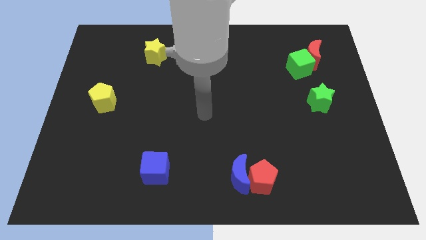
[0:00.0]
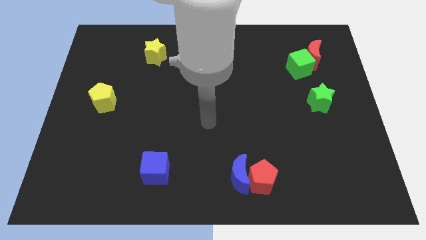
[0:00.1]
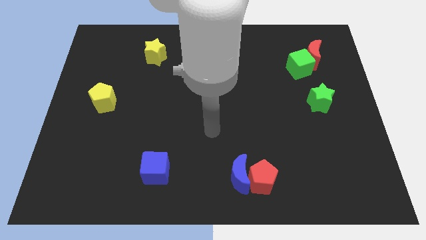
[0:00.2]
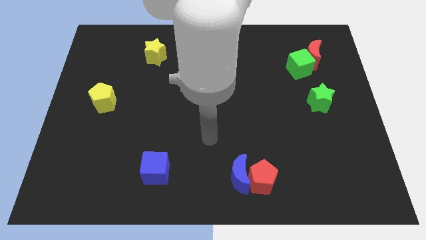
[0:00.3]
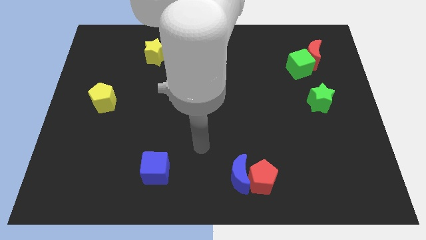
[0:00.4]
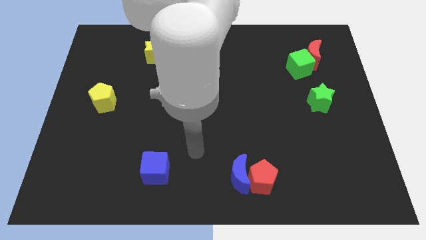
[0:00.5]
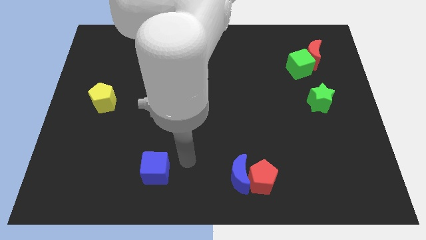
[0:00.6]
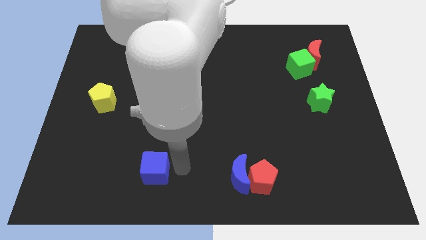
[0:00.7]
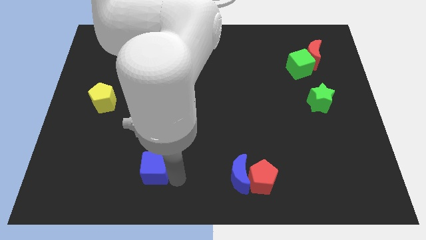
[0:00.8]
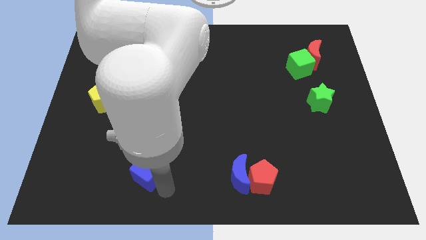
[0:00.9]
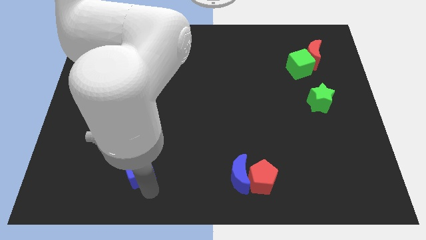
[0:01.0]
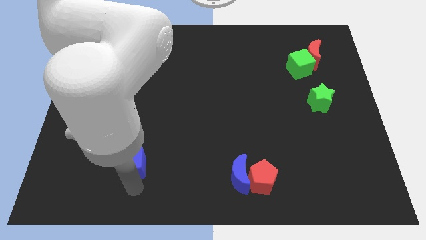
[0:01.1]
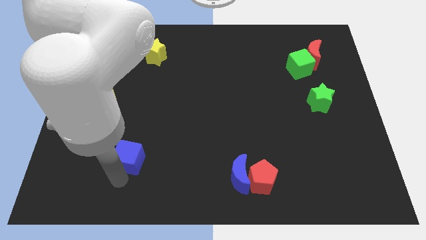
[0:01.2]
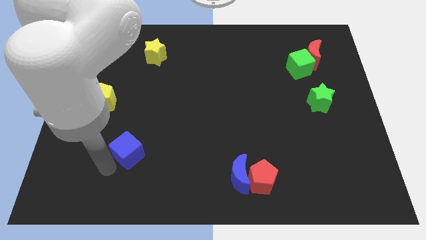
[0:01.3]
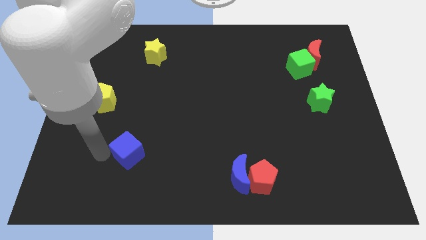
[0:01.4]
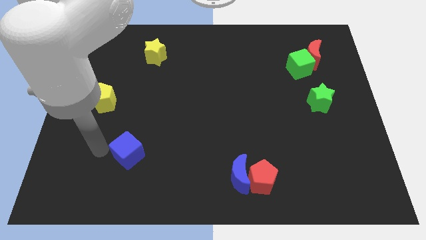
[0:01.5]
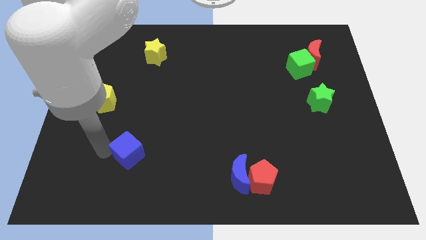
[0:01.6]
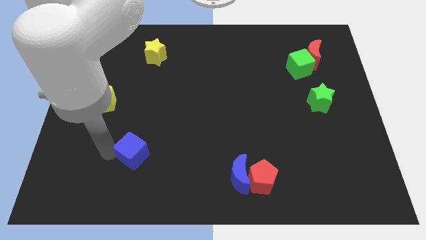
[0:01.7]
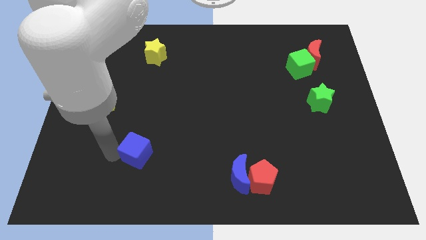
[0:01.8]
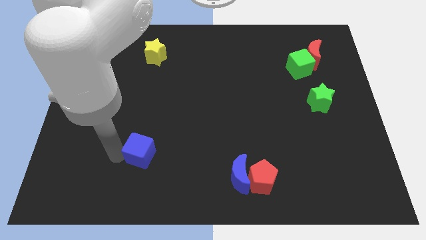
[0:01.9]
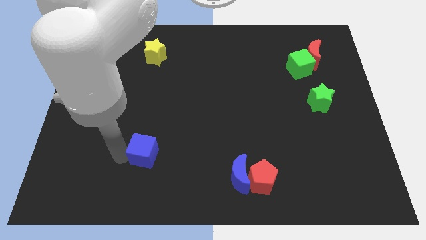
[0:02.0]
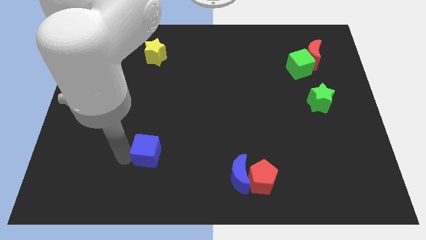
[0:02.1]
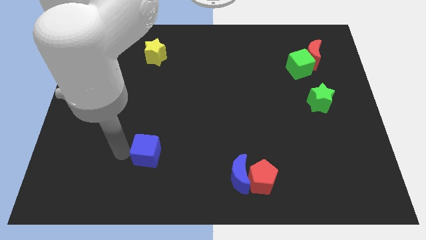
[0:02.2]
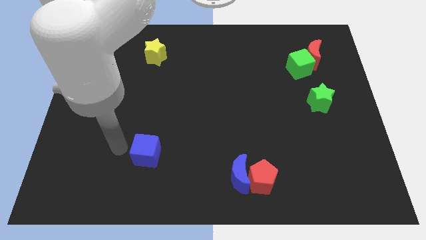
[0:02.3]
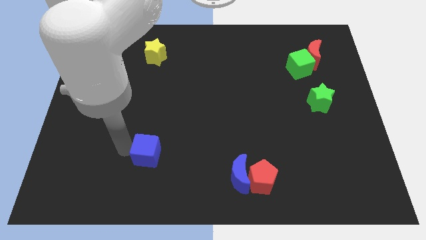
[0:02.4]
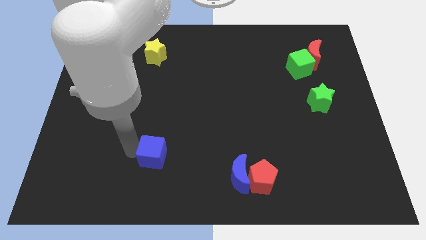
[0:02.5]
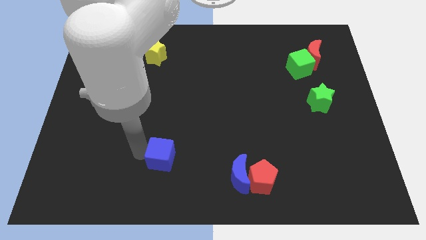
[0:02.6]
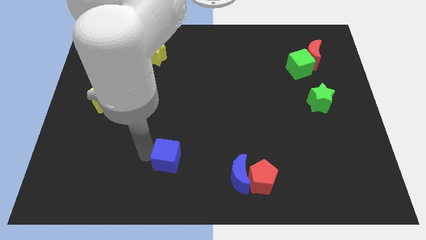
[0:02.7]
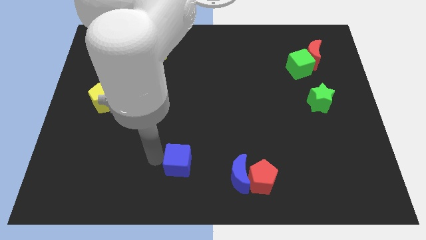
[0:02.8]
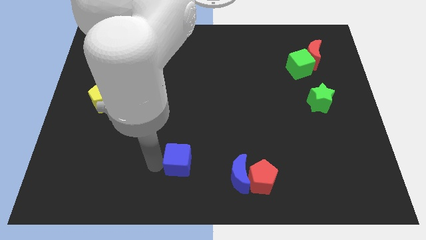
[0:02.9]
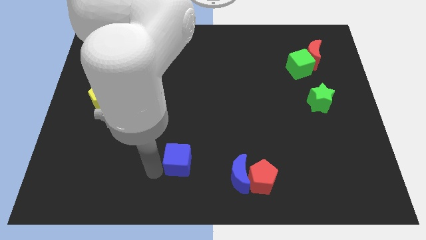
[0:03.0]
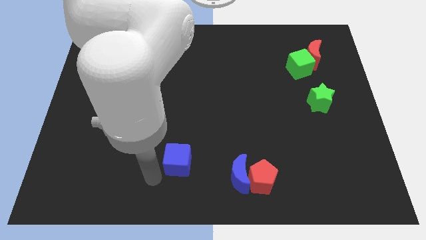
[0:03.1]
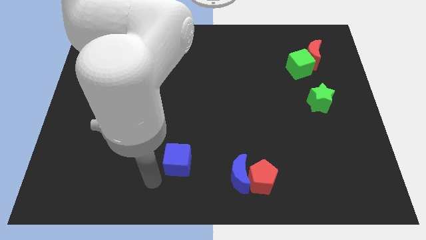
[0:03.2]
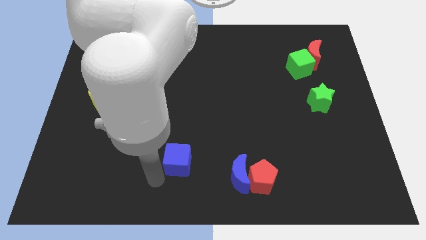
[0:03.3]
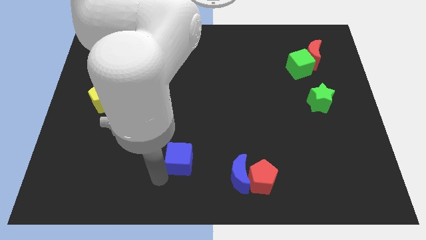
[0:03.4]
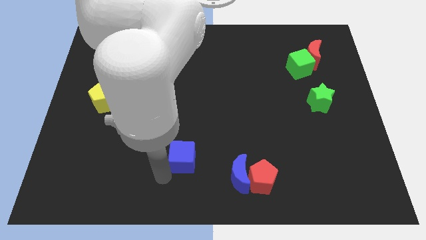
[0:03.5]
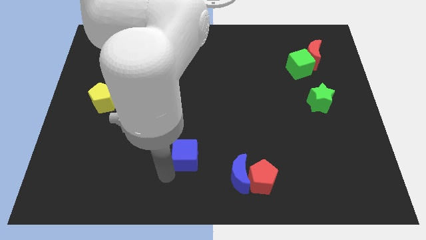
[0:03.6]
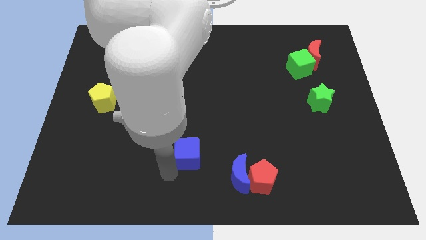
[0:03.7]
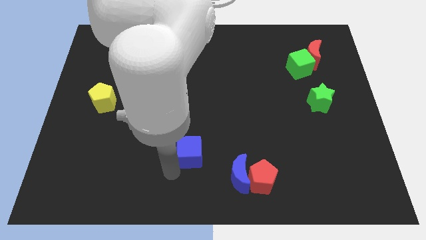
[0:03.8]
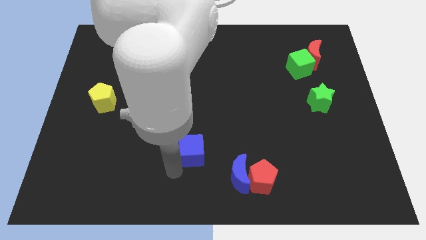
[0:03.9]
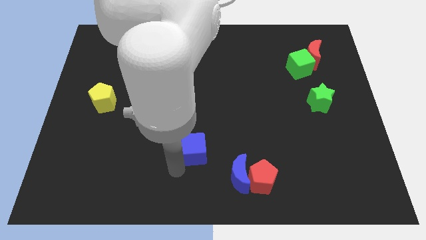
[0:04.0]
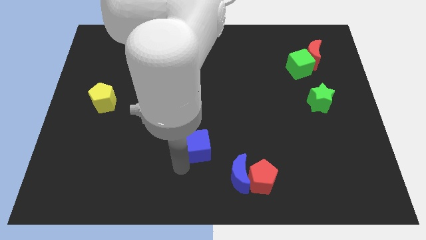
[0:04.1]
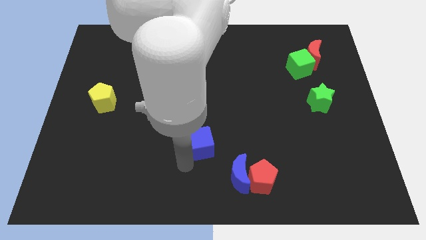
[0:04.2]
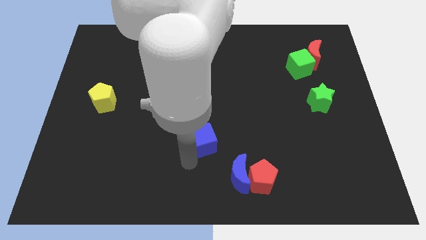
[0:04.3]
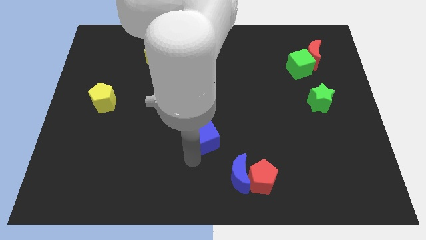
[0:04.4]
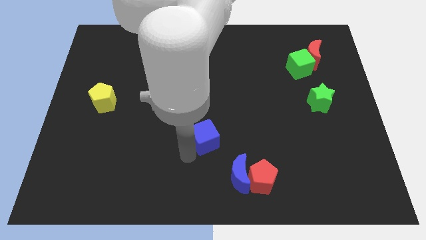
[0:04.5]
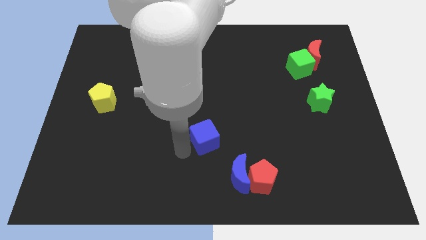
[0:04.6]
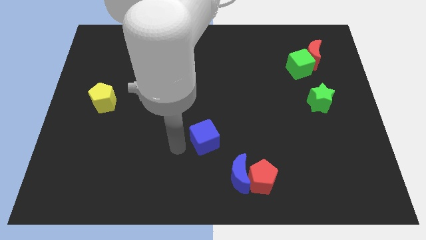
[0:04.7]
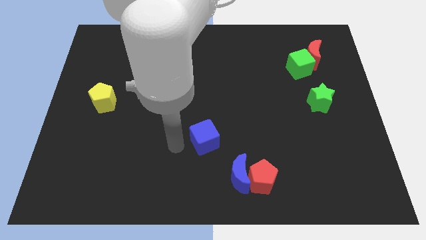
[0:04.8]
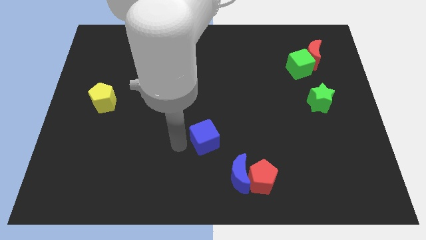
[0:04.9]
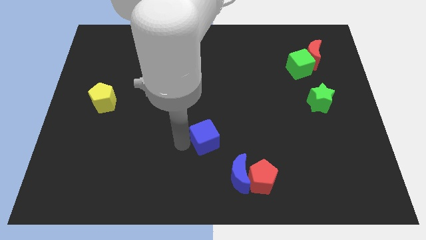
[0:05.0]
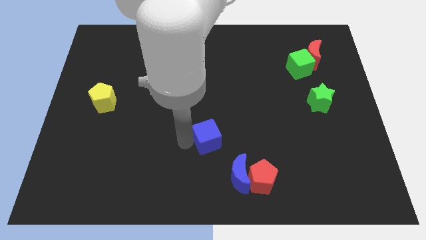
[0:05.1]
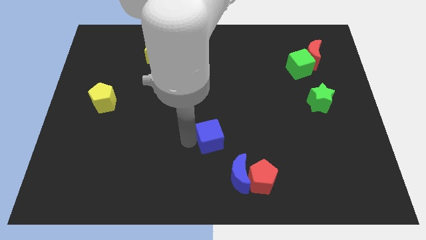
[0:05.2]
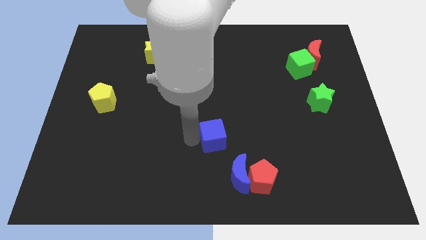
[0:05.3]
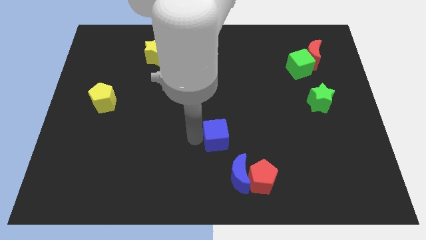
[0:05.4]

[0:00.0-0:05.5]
slide the blue cube to the top of the blue moon

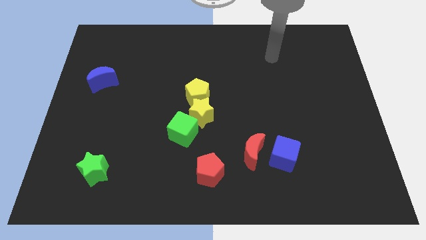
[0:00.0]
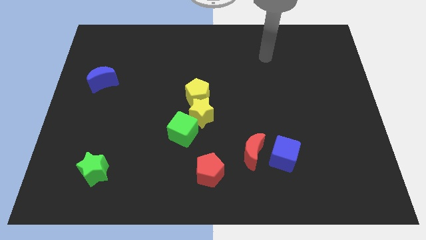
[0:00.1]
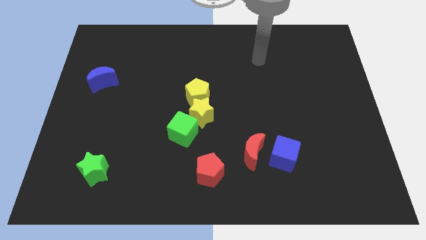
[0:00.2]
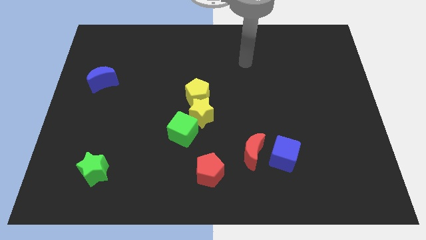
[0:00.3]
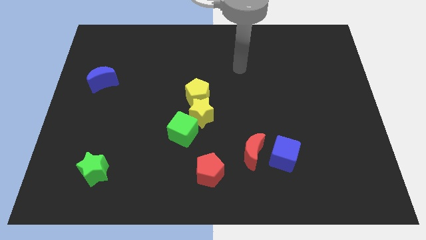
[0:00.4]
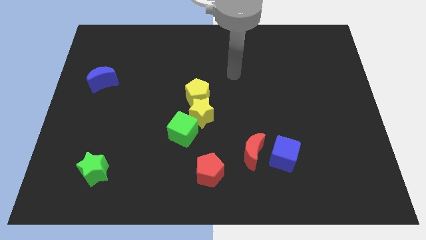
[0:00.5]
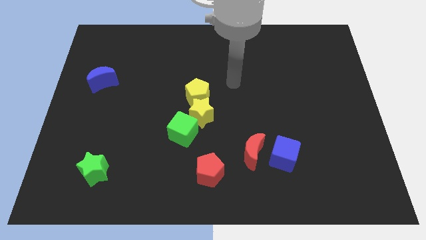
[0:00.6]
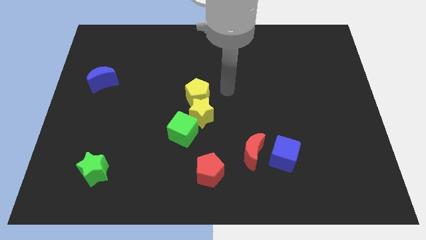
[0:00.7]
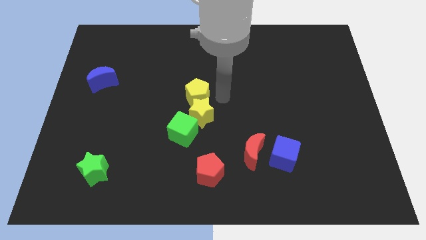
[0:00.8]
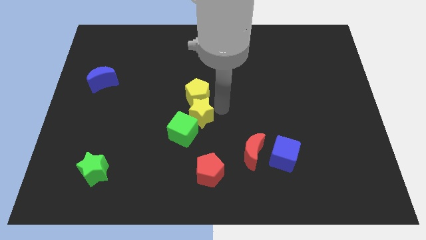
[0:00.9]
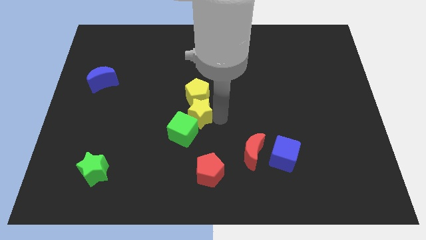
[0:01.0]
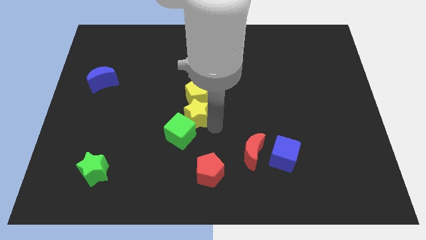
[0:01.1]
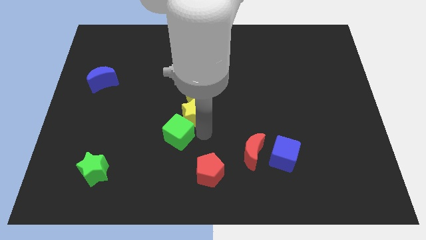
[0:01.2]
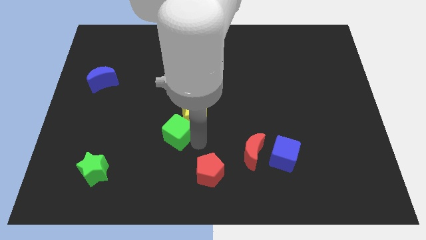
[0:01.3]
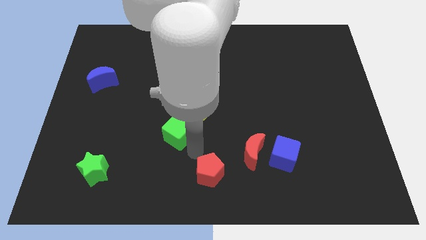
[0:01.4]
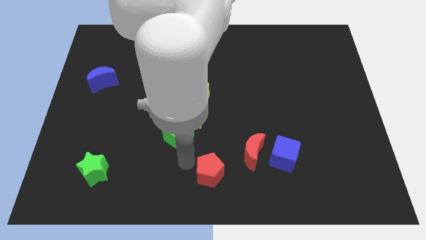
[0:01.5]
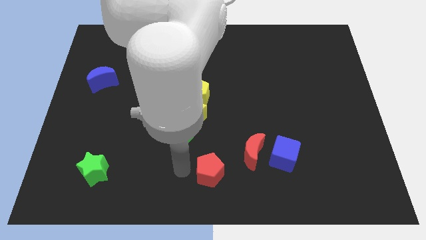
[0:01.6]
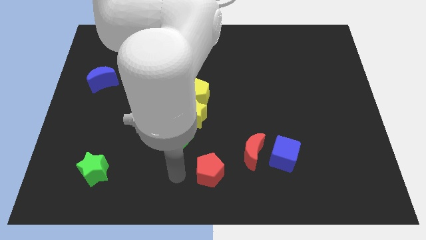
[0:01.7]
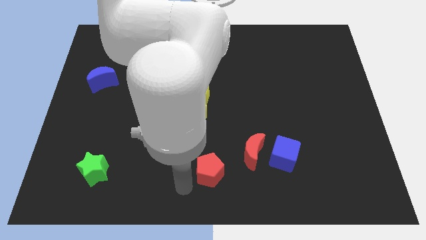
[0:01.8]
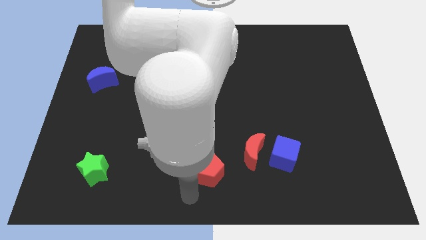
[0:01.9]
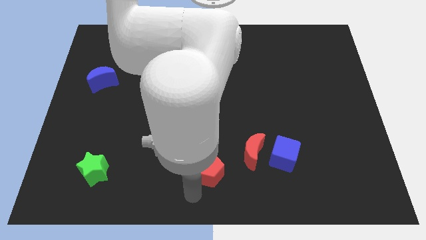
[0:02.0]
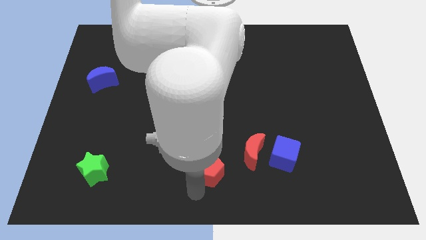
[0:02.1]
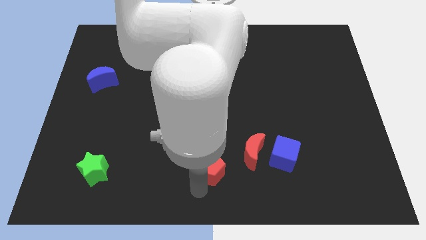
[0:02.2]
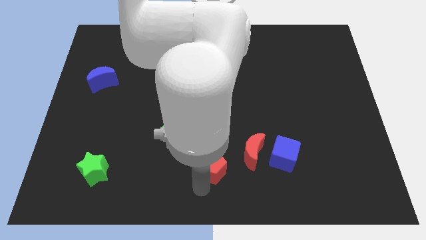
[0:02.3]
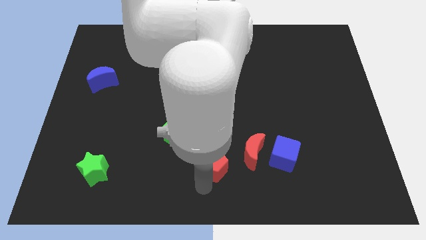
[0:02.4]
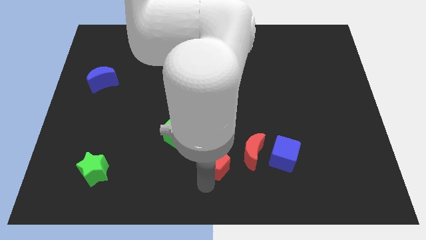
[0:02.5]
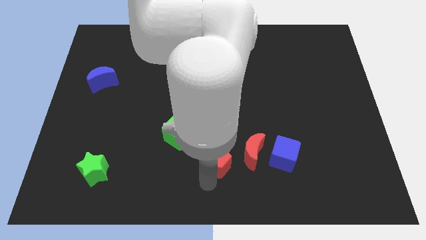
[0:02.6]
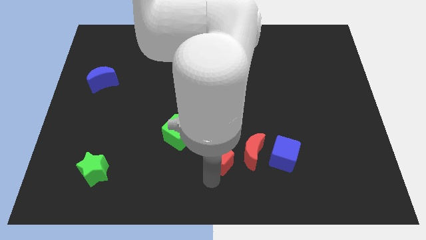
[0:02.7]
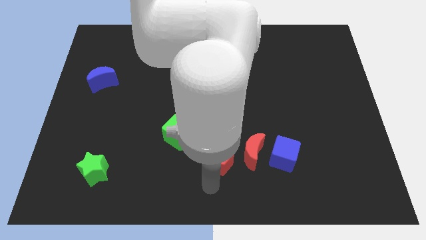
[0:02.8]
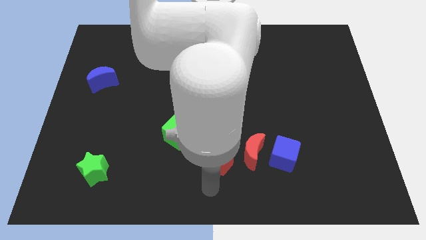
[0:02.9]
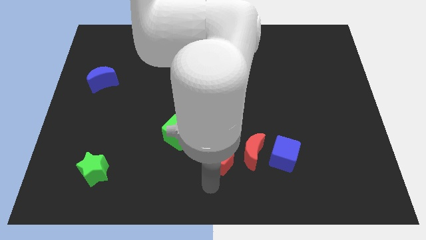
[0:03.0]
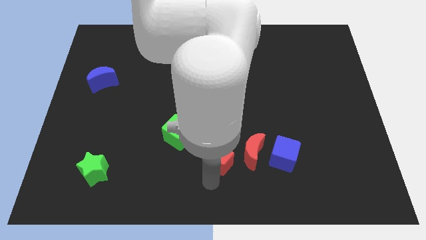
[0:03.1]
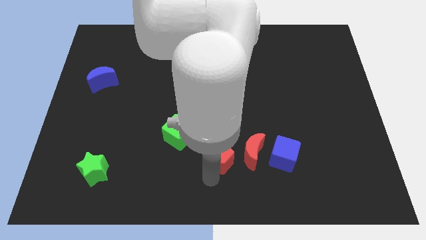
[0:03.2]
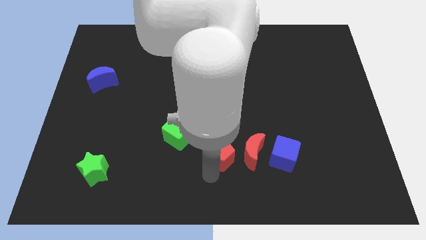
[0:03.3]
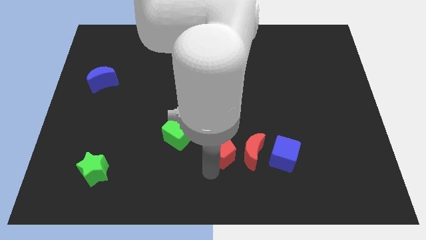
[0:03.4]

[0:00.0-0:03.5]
put the red pentagon to the top left side of the red moon
